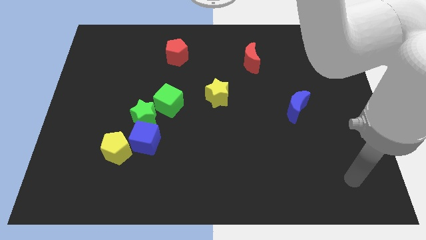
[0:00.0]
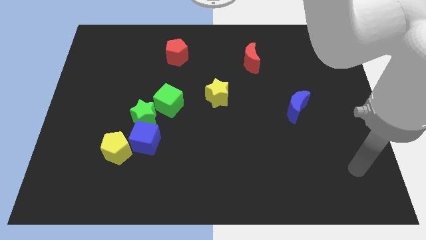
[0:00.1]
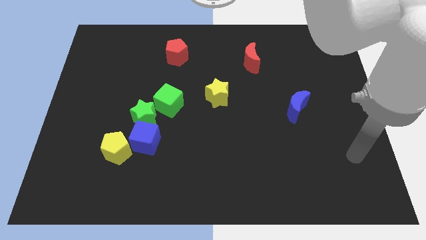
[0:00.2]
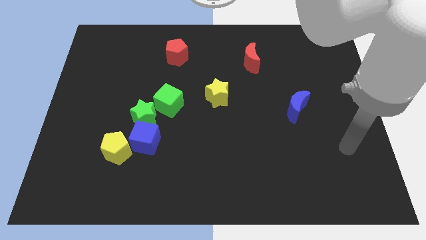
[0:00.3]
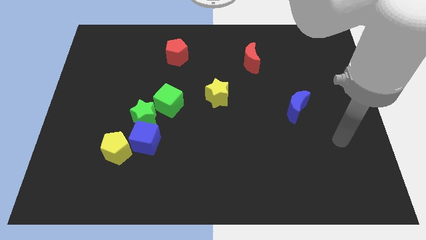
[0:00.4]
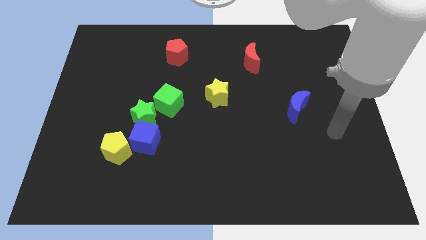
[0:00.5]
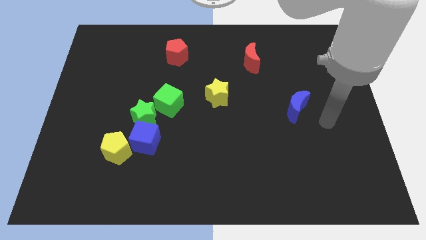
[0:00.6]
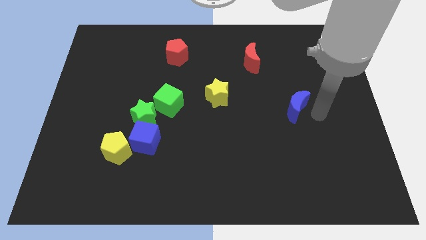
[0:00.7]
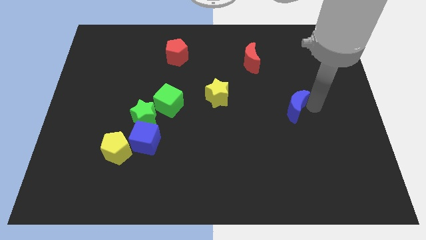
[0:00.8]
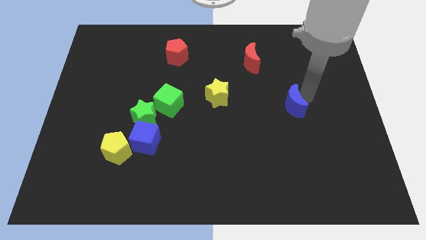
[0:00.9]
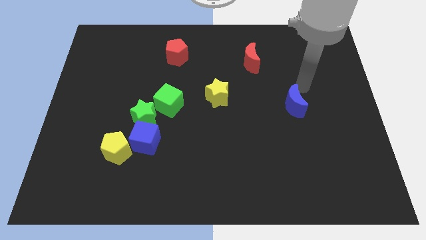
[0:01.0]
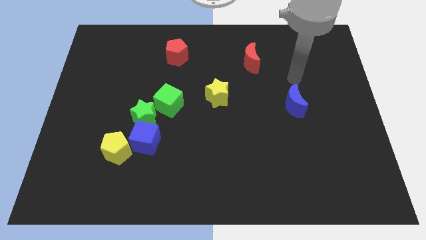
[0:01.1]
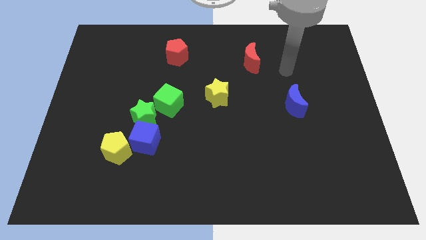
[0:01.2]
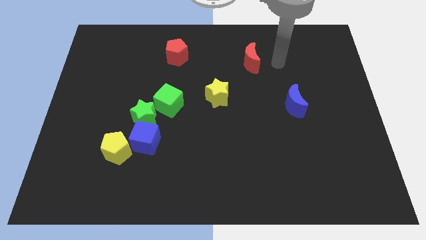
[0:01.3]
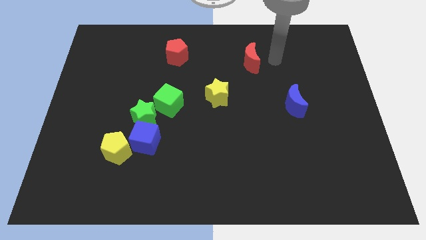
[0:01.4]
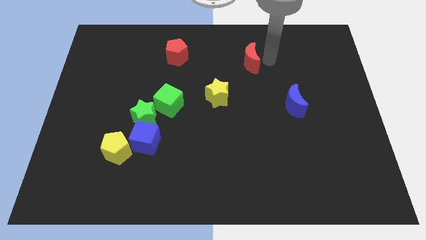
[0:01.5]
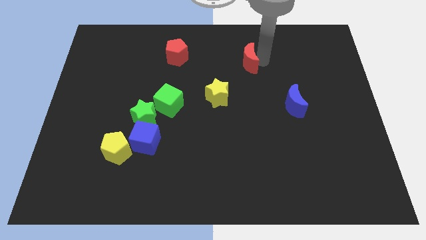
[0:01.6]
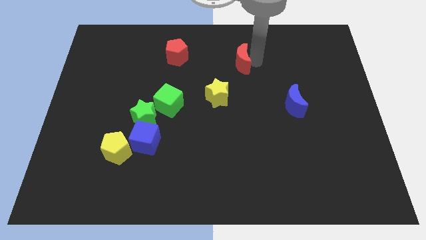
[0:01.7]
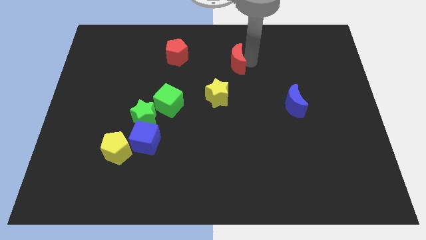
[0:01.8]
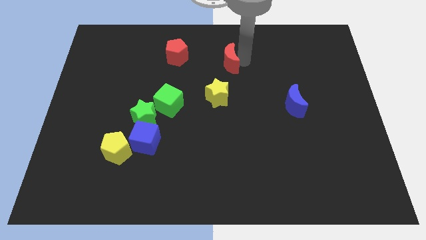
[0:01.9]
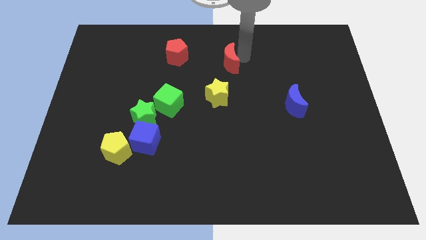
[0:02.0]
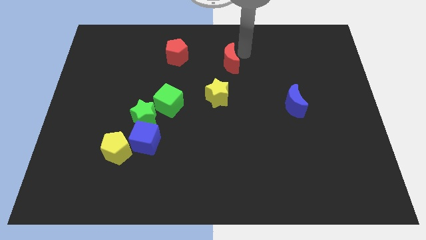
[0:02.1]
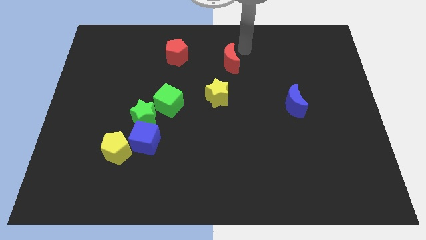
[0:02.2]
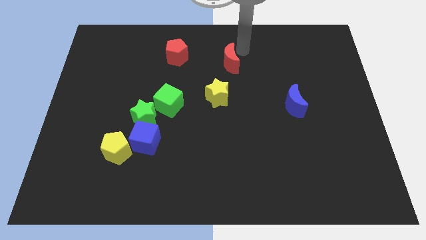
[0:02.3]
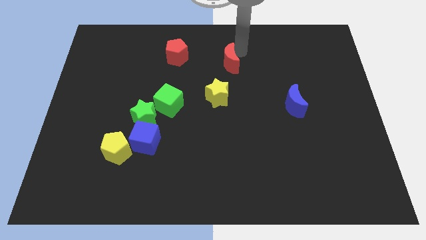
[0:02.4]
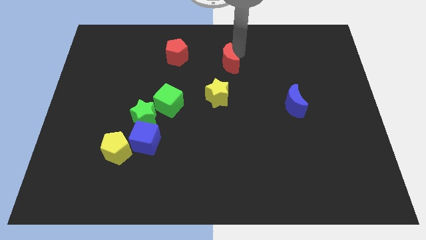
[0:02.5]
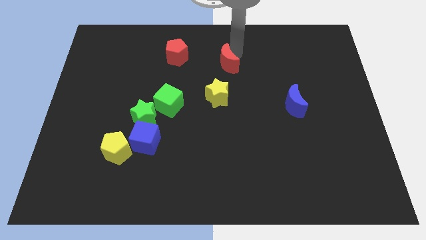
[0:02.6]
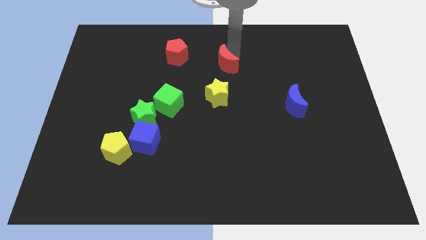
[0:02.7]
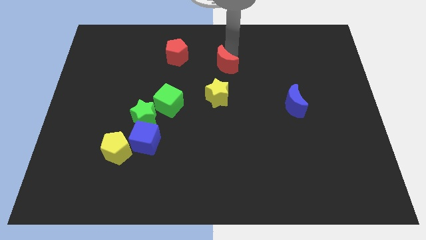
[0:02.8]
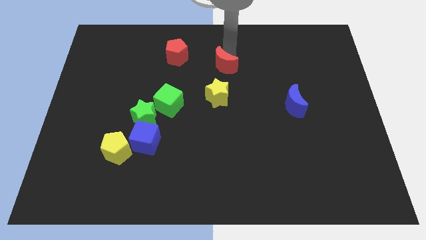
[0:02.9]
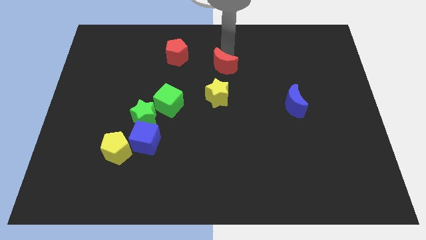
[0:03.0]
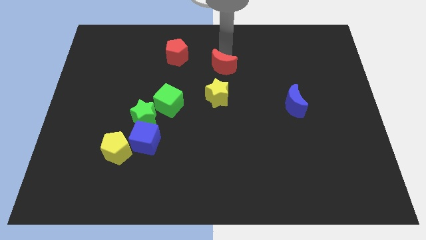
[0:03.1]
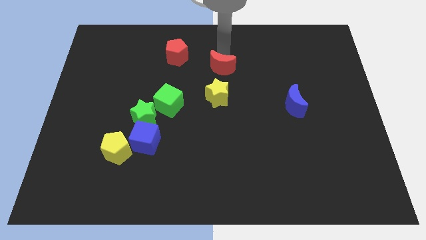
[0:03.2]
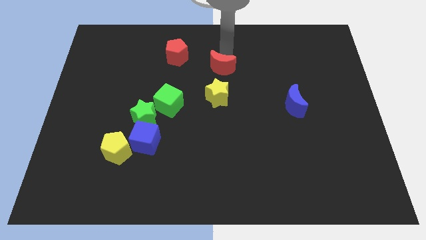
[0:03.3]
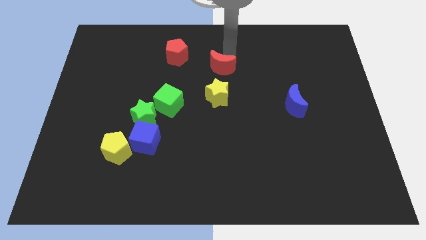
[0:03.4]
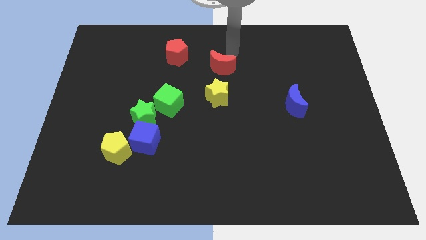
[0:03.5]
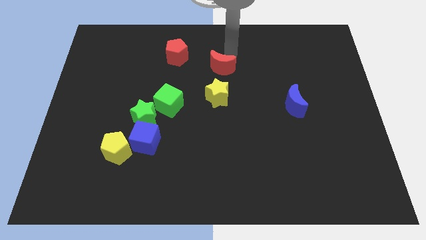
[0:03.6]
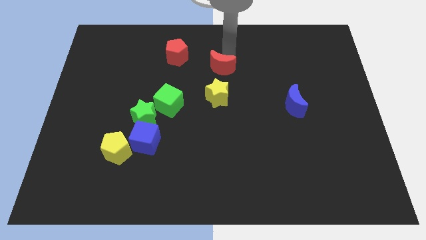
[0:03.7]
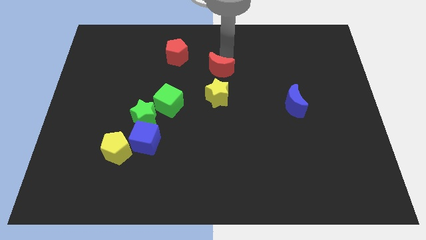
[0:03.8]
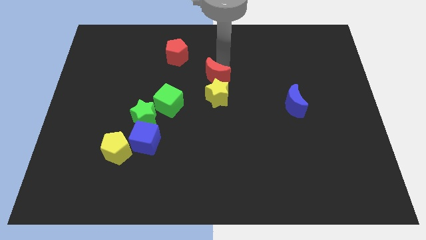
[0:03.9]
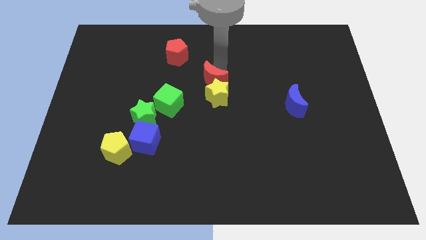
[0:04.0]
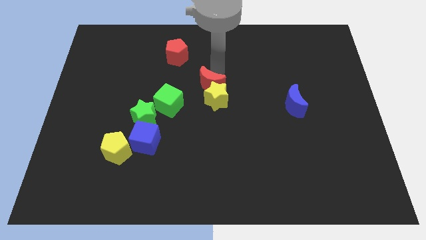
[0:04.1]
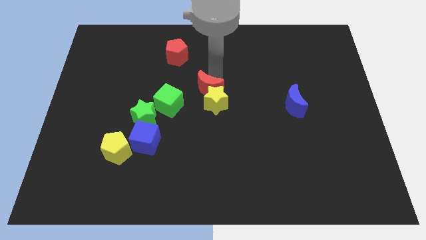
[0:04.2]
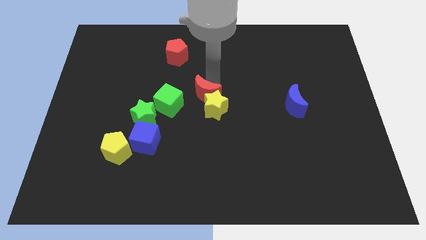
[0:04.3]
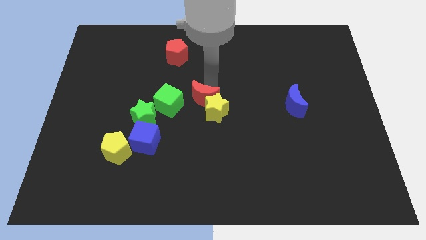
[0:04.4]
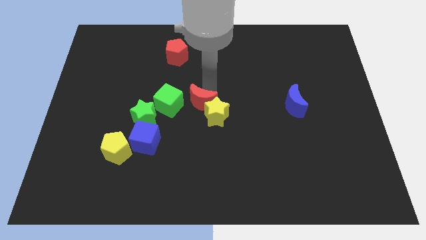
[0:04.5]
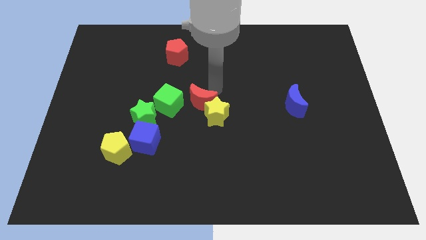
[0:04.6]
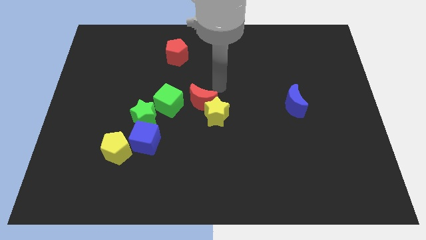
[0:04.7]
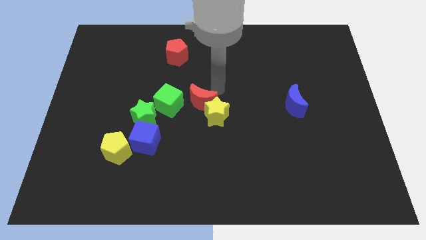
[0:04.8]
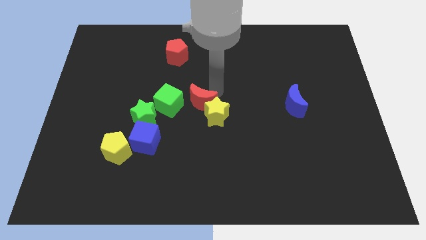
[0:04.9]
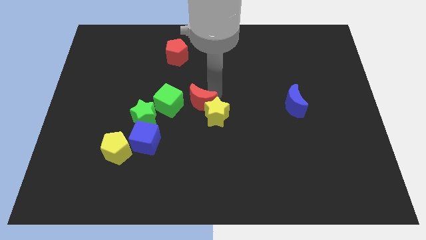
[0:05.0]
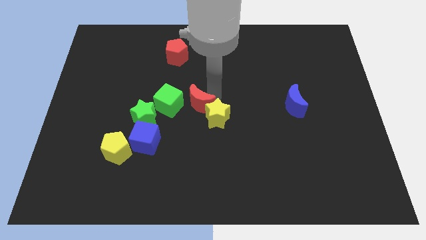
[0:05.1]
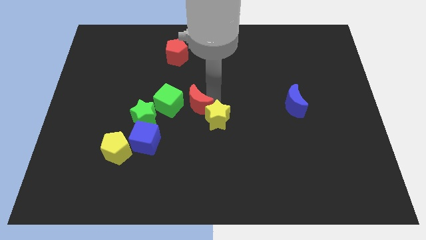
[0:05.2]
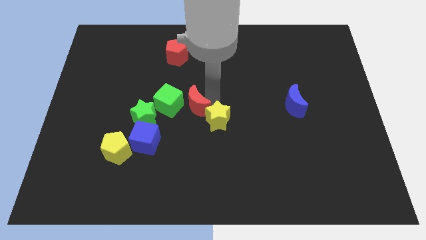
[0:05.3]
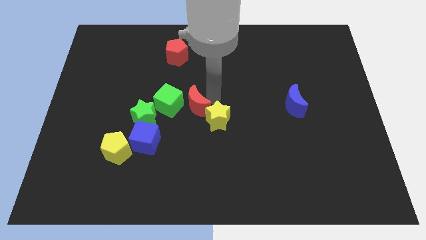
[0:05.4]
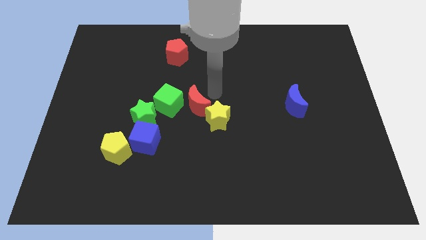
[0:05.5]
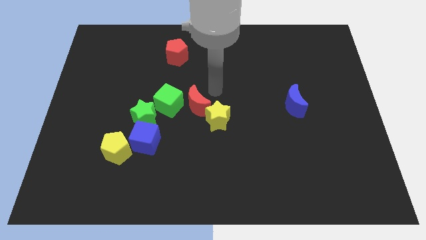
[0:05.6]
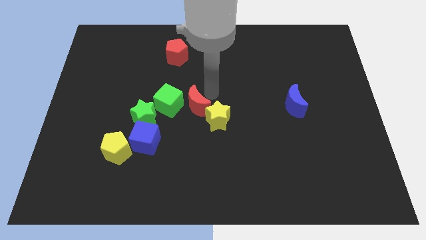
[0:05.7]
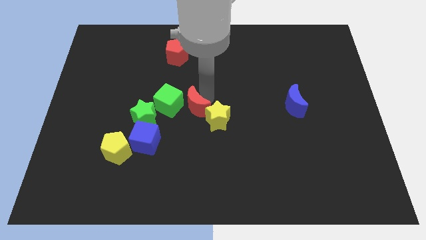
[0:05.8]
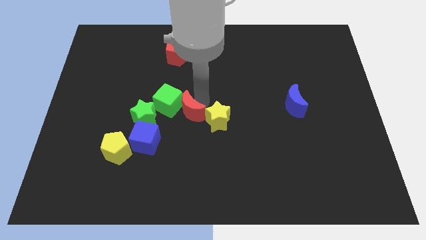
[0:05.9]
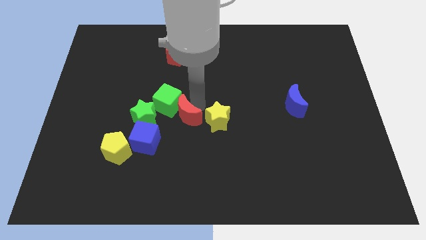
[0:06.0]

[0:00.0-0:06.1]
move the red moon below the green cube

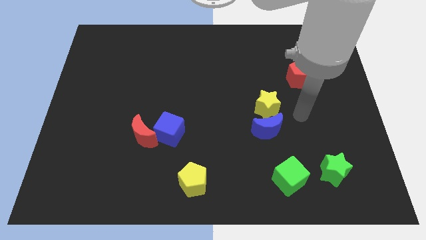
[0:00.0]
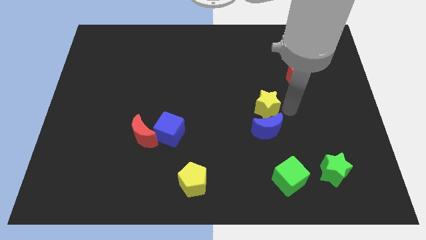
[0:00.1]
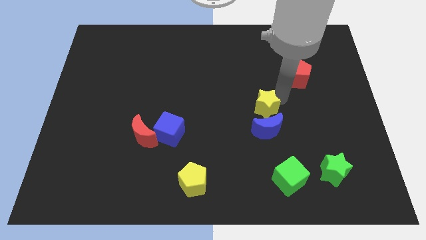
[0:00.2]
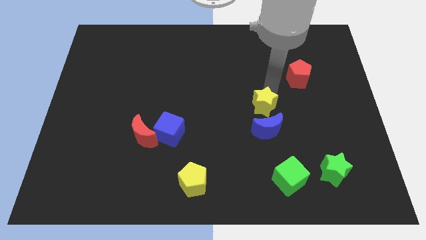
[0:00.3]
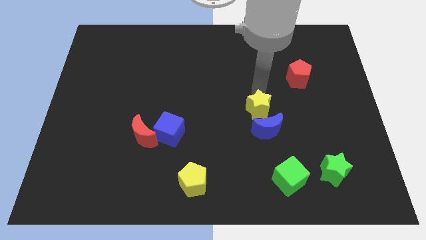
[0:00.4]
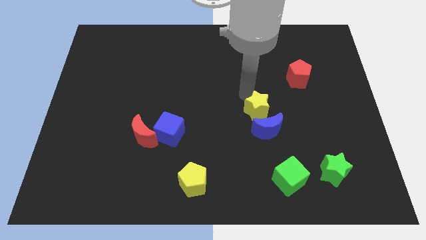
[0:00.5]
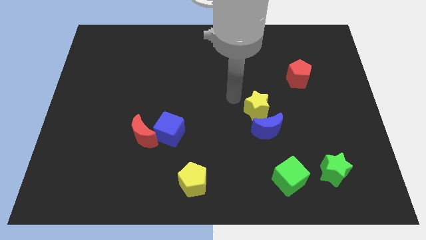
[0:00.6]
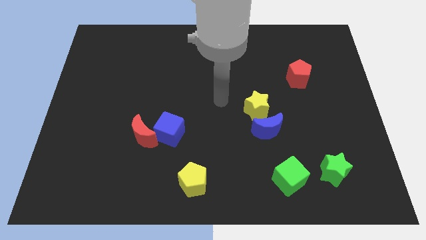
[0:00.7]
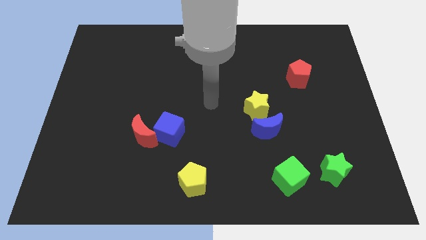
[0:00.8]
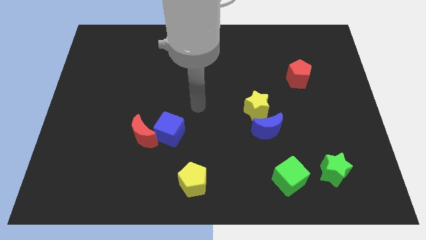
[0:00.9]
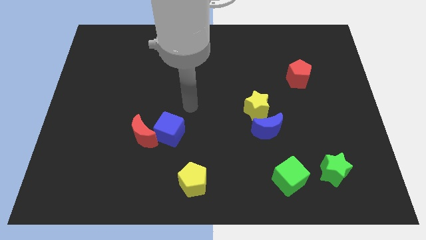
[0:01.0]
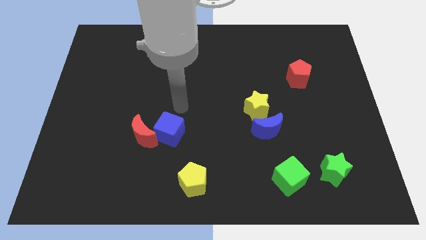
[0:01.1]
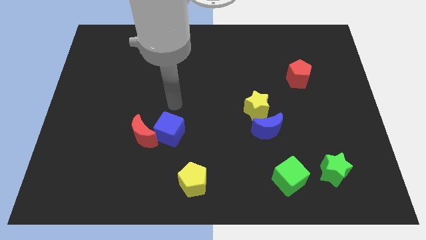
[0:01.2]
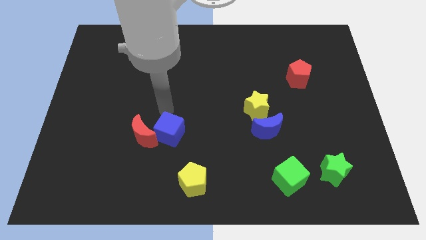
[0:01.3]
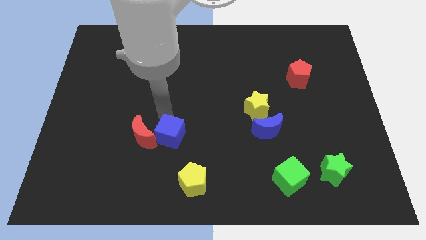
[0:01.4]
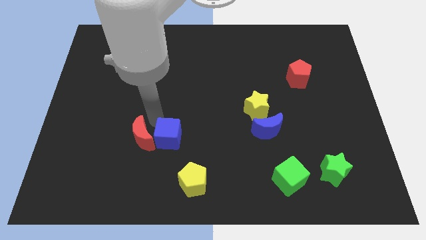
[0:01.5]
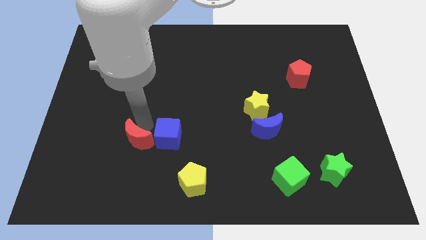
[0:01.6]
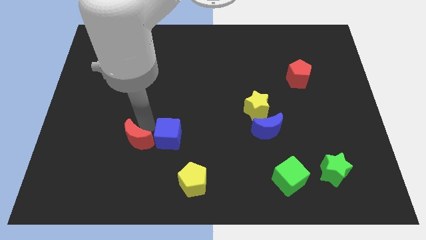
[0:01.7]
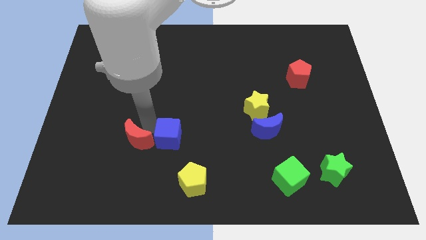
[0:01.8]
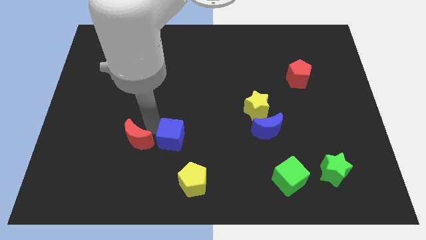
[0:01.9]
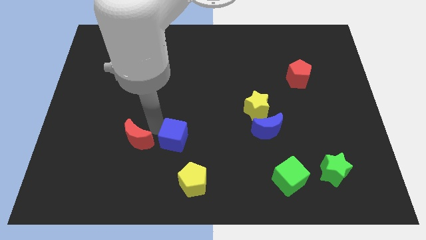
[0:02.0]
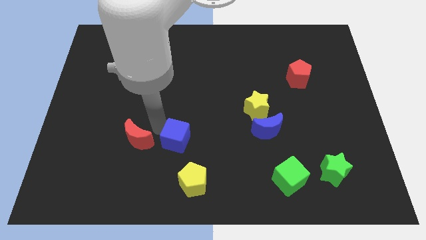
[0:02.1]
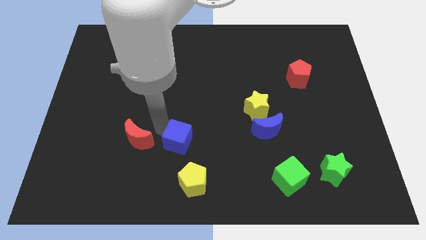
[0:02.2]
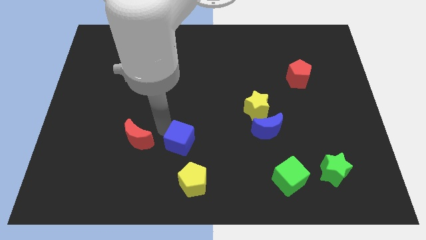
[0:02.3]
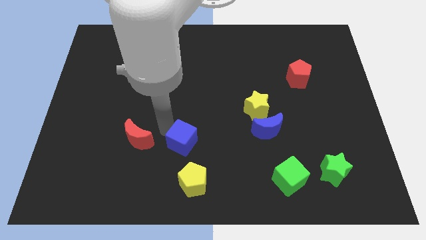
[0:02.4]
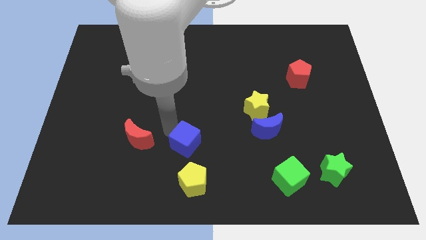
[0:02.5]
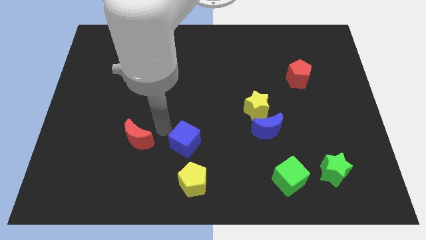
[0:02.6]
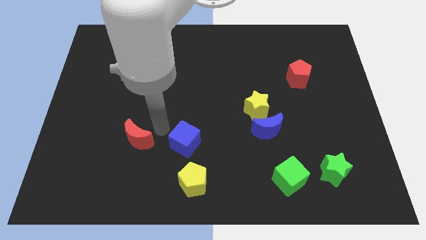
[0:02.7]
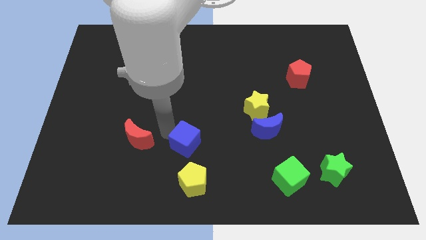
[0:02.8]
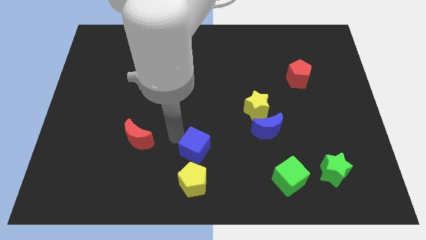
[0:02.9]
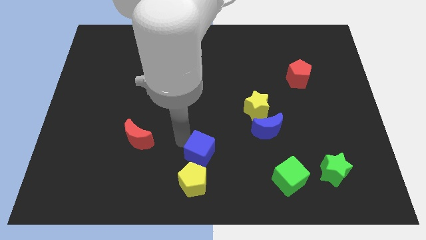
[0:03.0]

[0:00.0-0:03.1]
move the blue cube to the top right of the yellow pentagon
